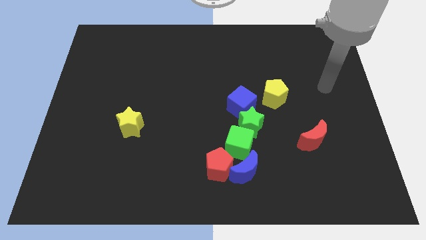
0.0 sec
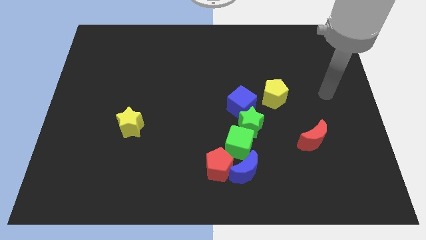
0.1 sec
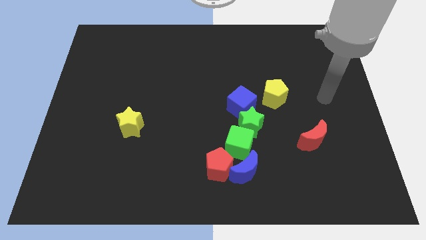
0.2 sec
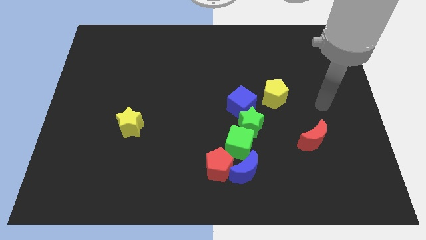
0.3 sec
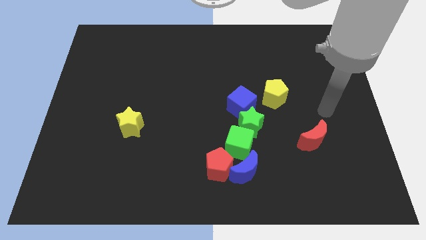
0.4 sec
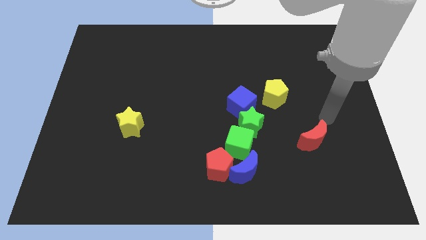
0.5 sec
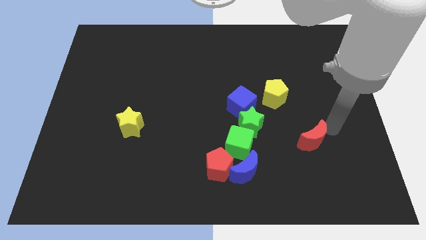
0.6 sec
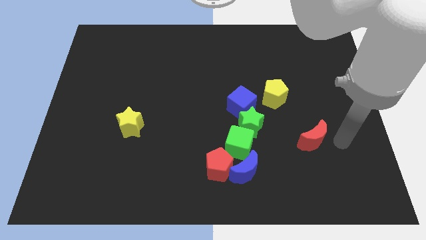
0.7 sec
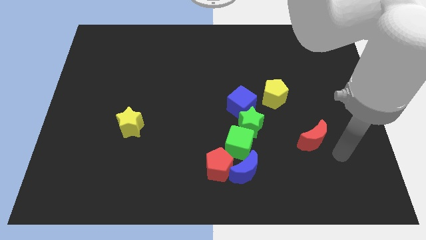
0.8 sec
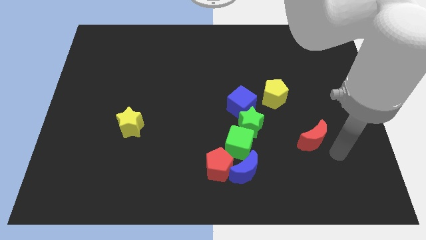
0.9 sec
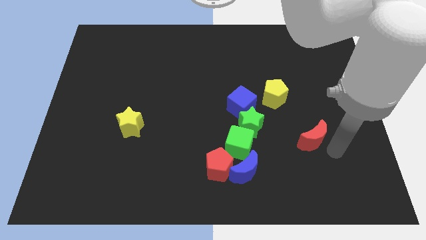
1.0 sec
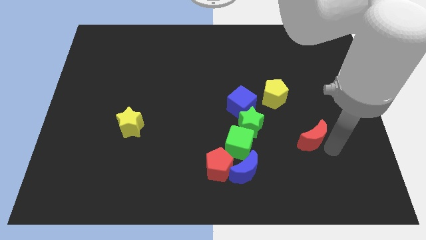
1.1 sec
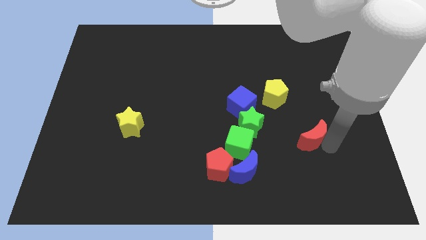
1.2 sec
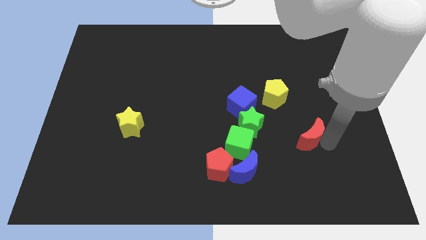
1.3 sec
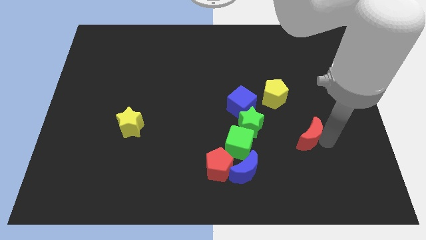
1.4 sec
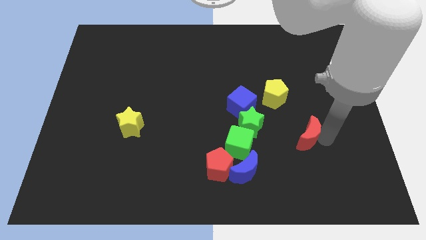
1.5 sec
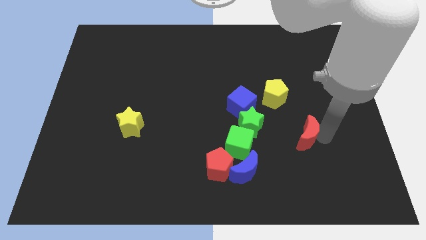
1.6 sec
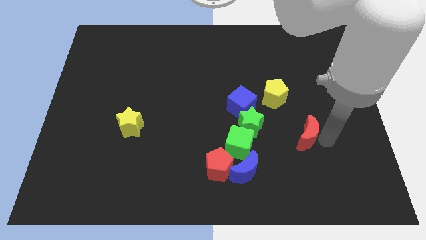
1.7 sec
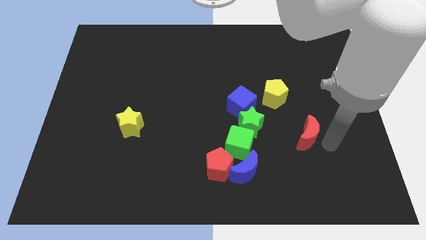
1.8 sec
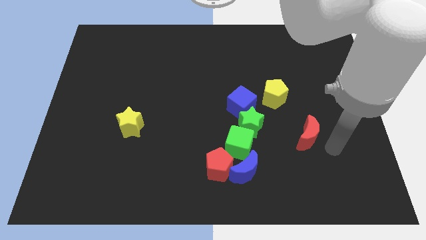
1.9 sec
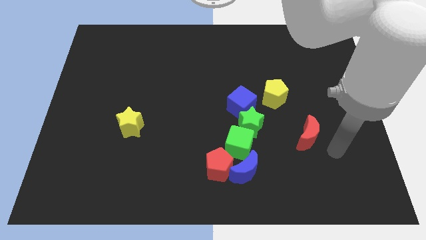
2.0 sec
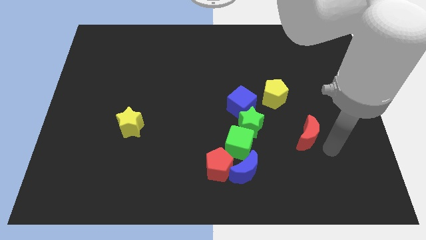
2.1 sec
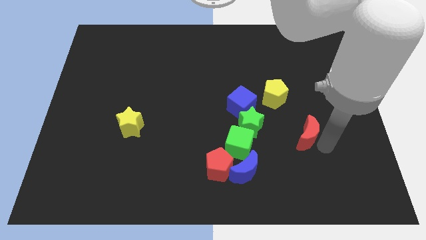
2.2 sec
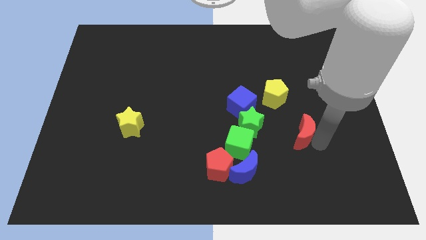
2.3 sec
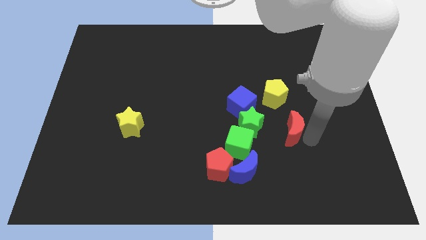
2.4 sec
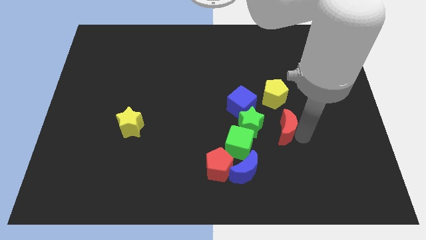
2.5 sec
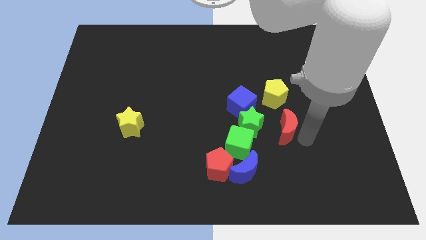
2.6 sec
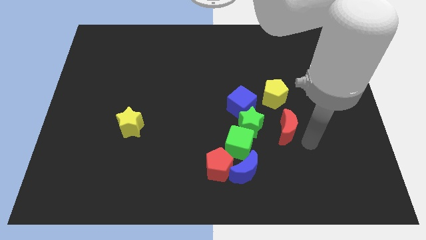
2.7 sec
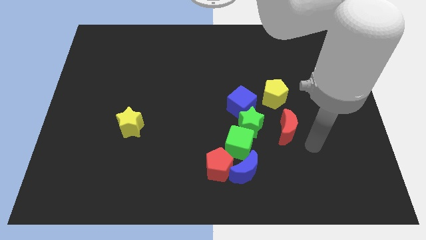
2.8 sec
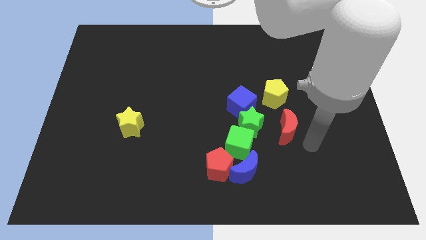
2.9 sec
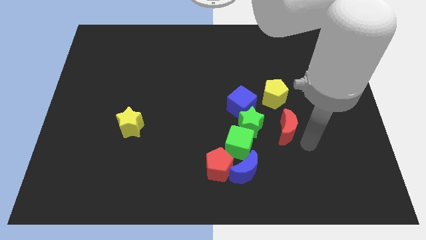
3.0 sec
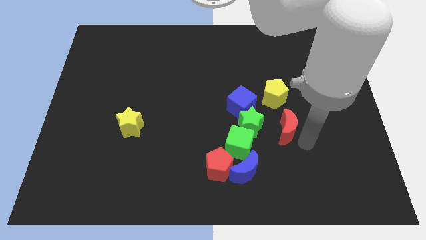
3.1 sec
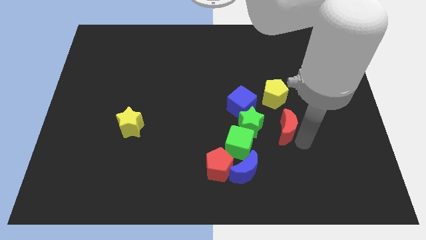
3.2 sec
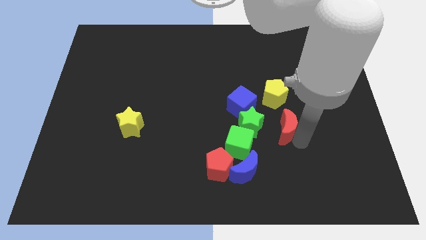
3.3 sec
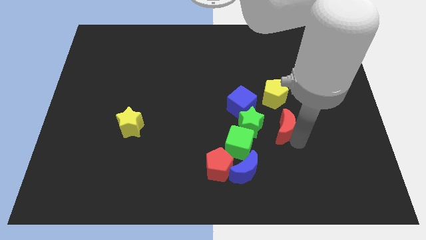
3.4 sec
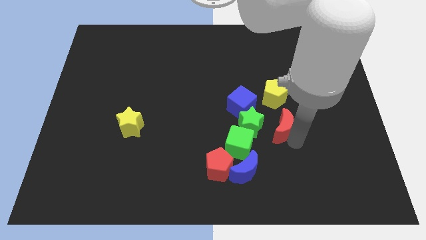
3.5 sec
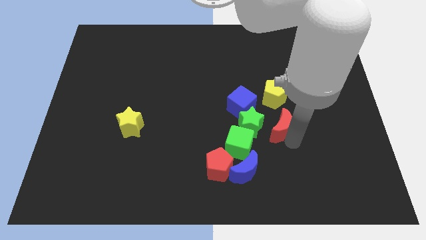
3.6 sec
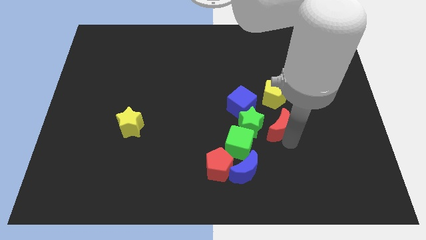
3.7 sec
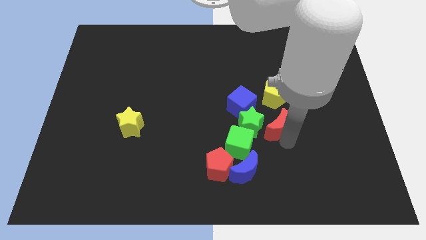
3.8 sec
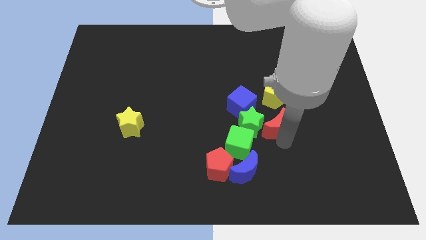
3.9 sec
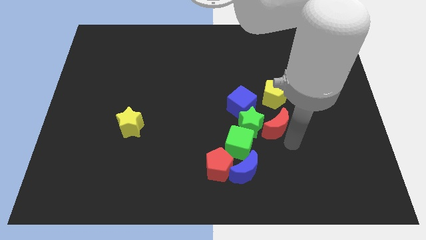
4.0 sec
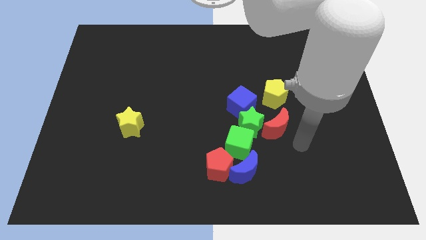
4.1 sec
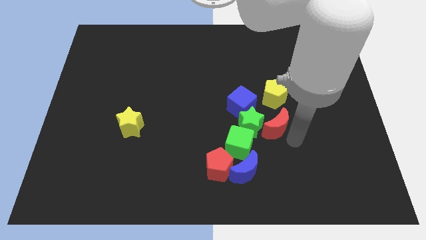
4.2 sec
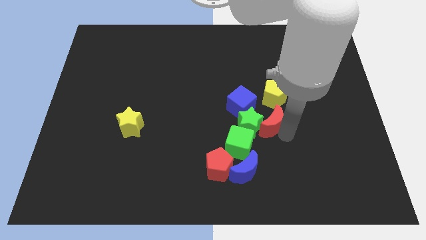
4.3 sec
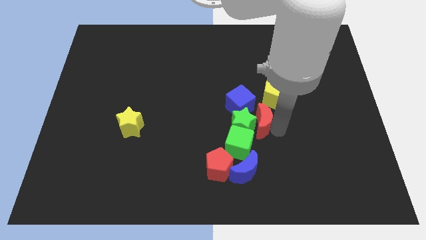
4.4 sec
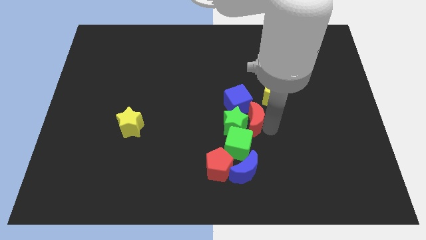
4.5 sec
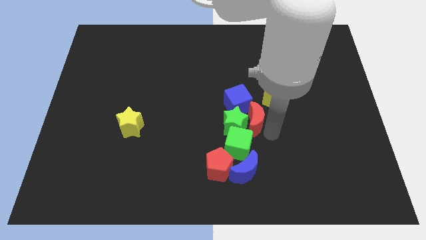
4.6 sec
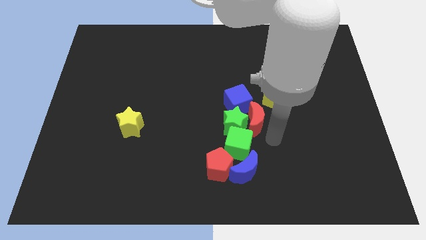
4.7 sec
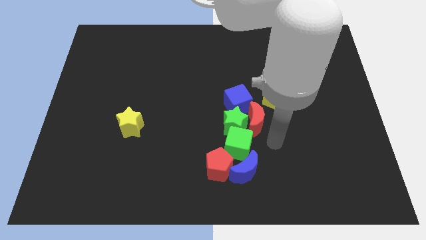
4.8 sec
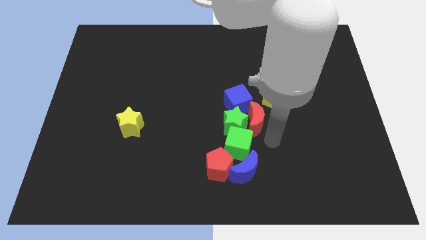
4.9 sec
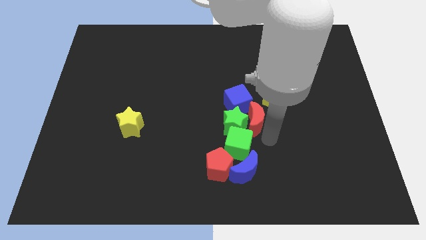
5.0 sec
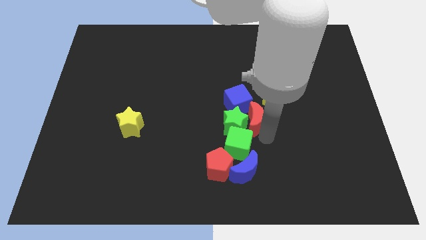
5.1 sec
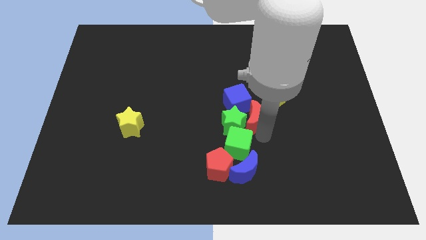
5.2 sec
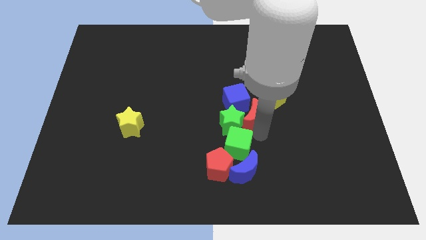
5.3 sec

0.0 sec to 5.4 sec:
move the red moon next to the blue cube
